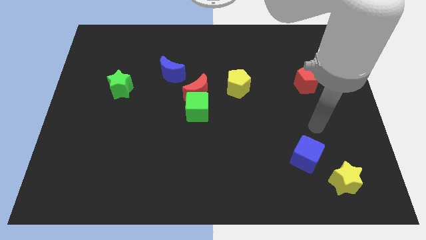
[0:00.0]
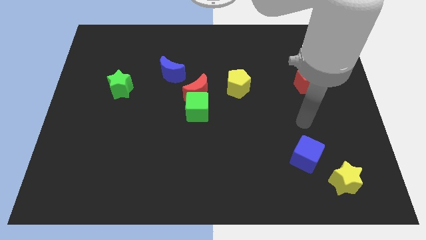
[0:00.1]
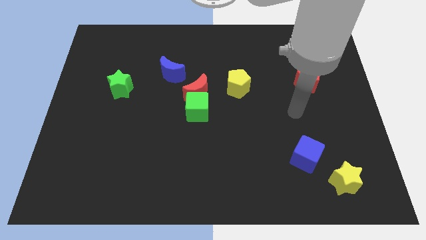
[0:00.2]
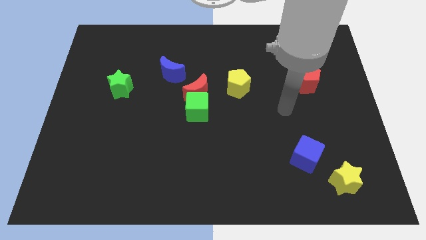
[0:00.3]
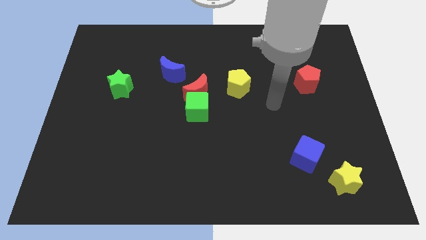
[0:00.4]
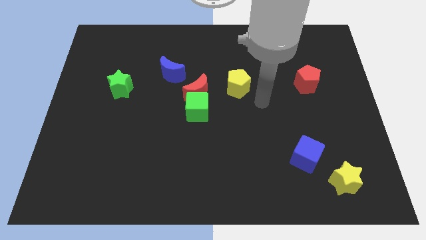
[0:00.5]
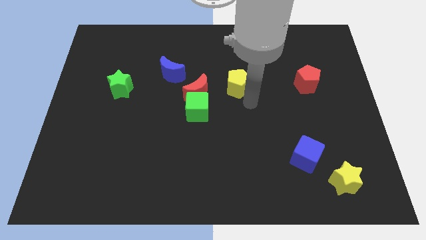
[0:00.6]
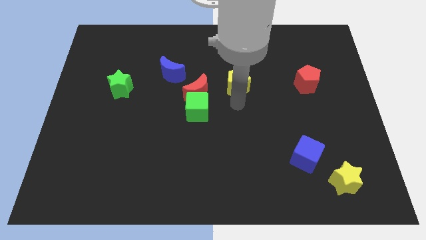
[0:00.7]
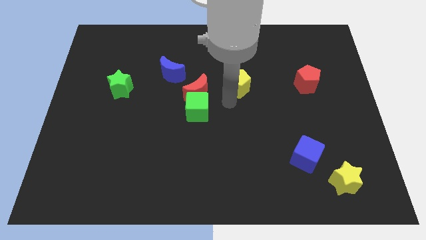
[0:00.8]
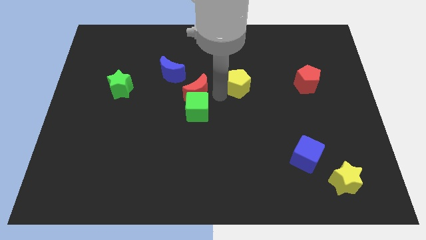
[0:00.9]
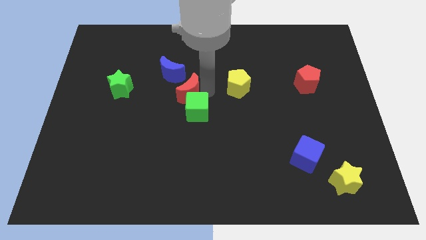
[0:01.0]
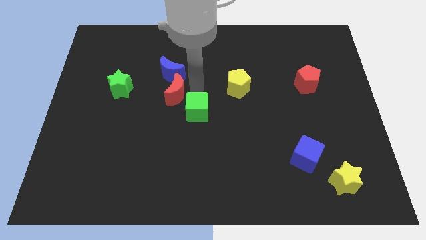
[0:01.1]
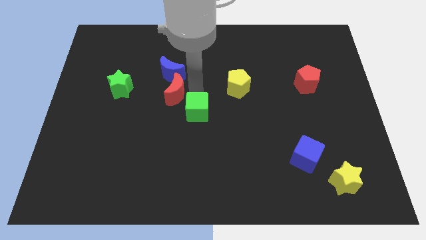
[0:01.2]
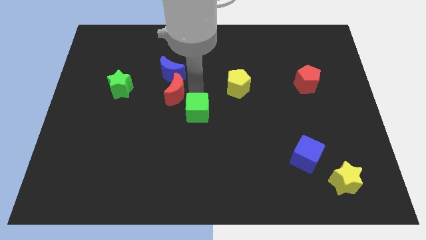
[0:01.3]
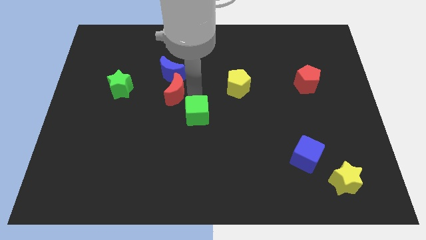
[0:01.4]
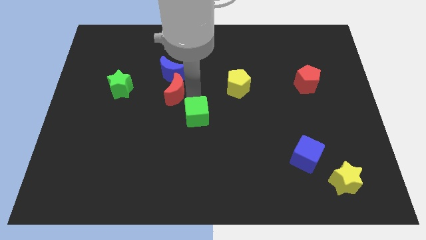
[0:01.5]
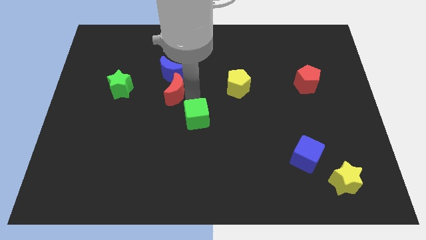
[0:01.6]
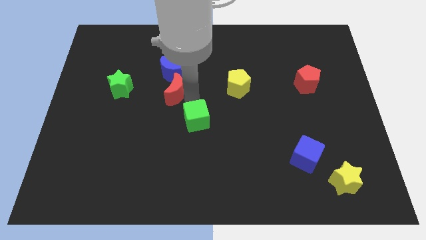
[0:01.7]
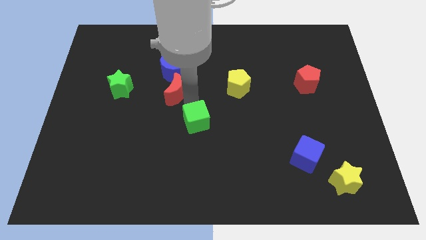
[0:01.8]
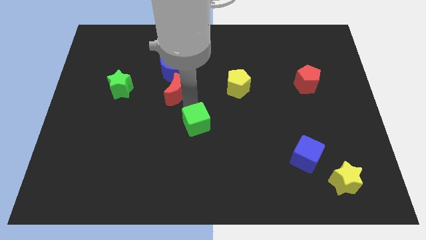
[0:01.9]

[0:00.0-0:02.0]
move the green cube away from the red moon

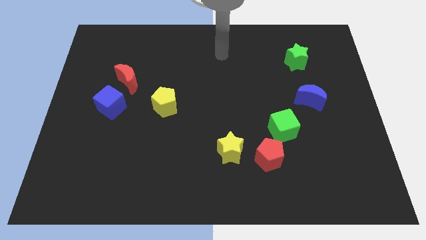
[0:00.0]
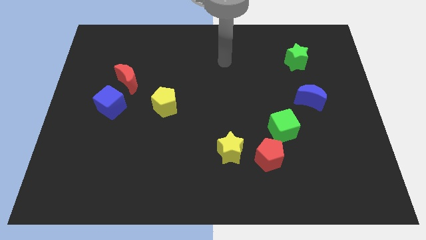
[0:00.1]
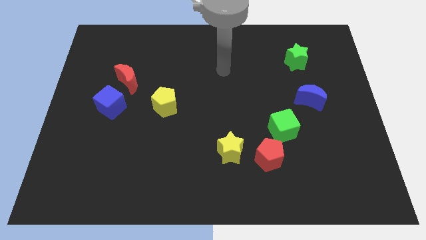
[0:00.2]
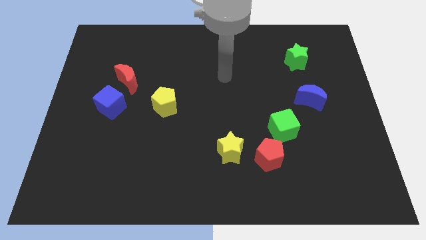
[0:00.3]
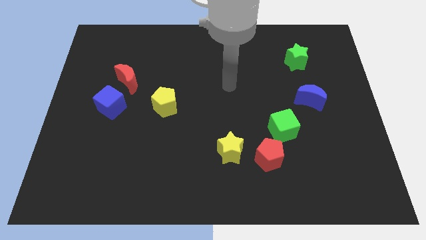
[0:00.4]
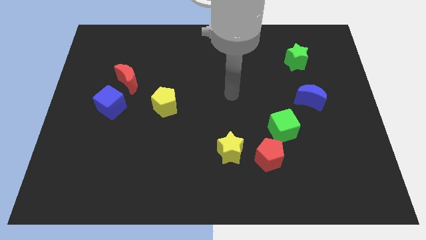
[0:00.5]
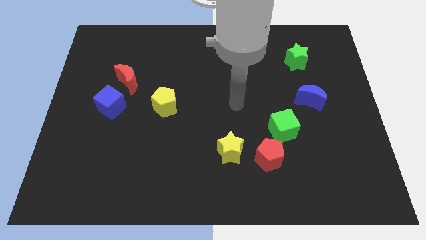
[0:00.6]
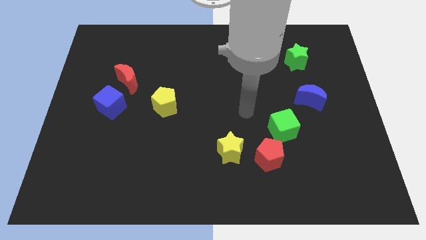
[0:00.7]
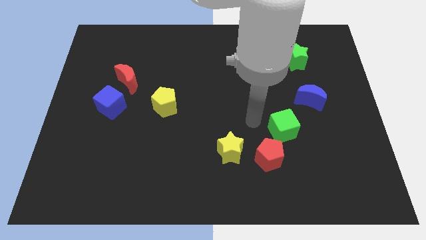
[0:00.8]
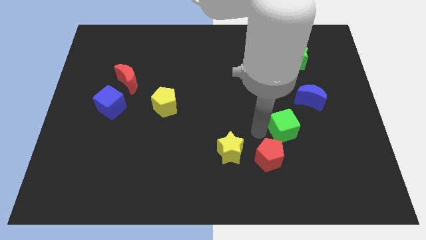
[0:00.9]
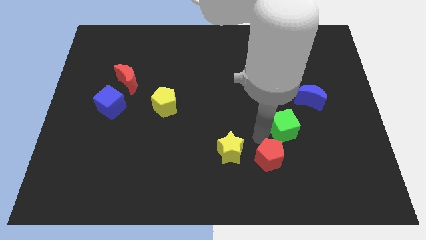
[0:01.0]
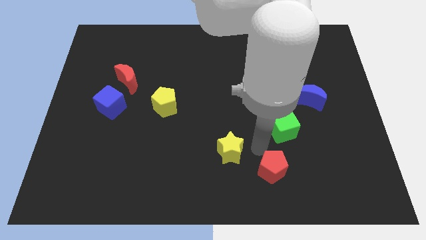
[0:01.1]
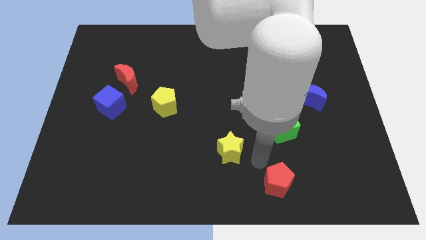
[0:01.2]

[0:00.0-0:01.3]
pull the yellow star apart from the red pentagon

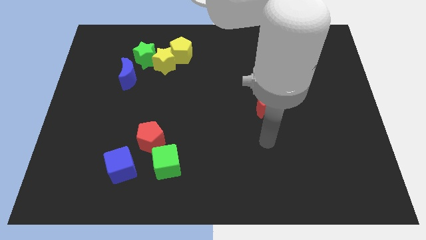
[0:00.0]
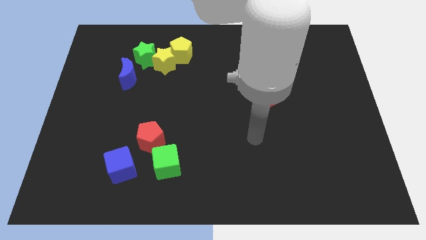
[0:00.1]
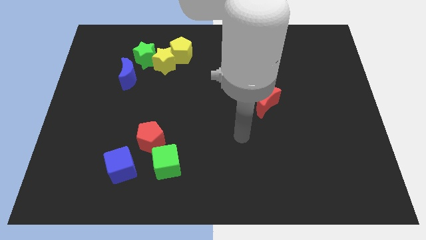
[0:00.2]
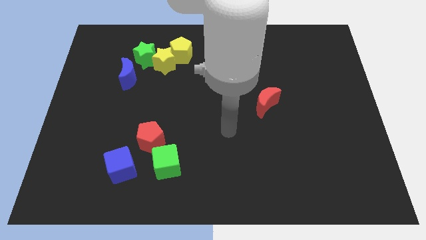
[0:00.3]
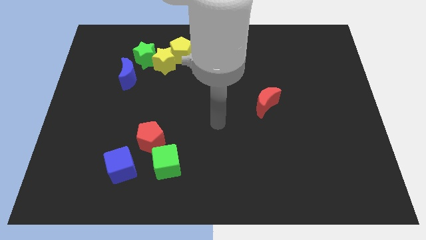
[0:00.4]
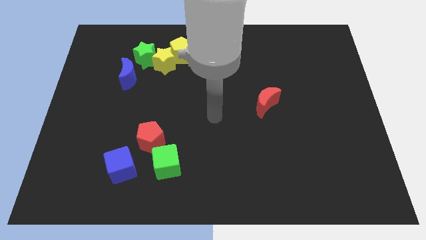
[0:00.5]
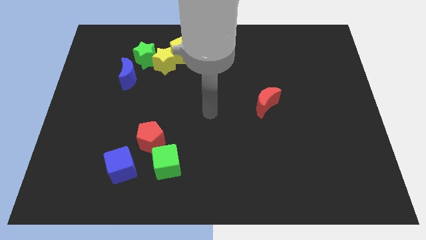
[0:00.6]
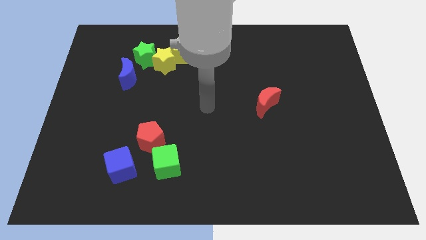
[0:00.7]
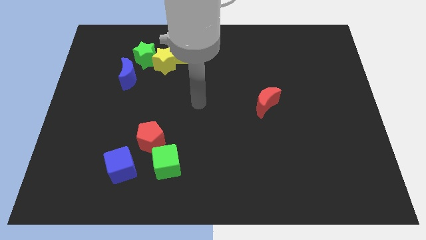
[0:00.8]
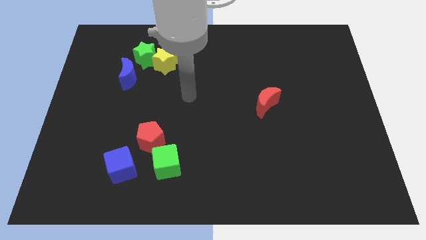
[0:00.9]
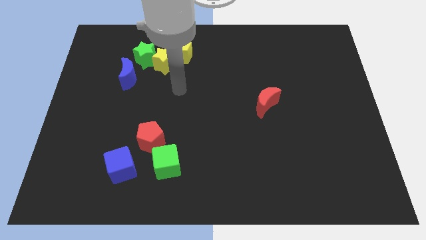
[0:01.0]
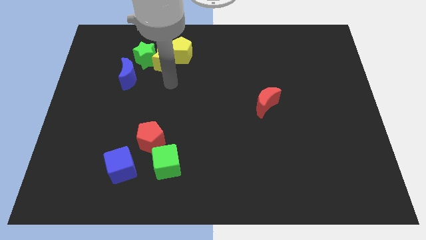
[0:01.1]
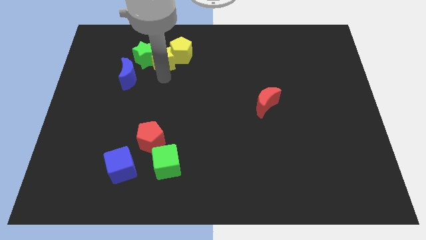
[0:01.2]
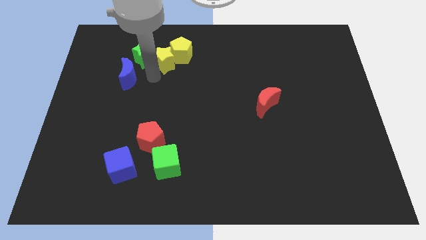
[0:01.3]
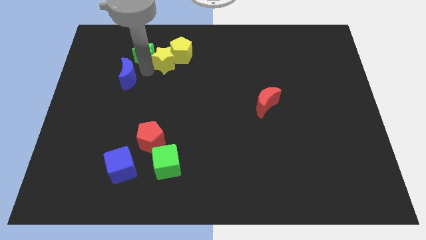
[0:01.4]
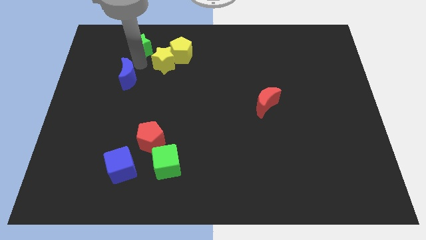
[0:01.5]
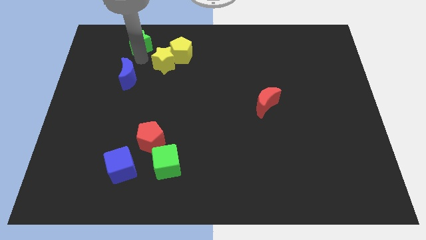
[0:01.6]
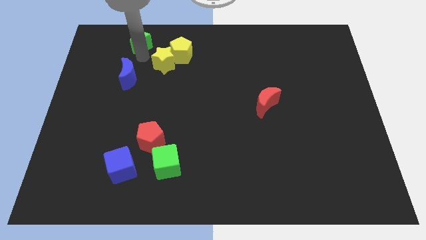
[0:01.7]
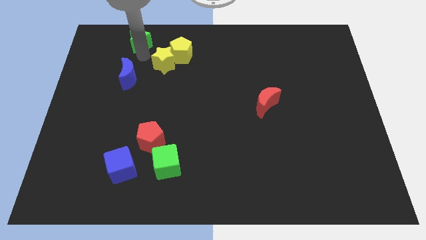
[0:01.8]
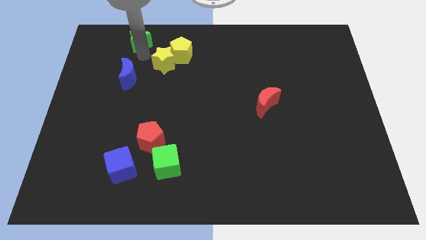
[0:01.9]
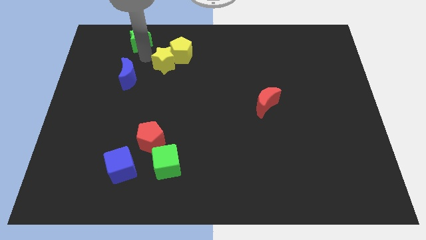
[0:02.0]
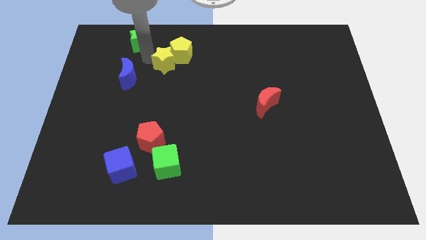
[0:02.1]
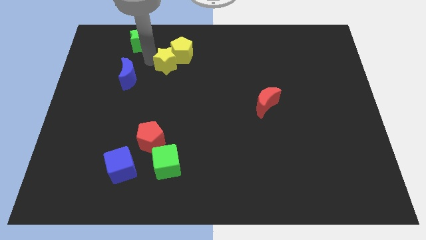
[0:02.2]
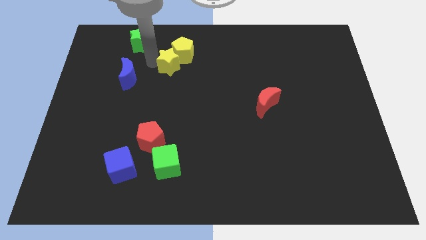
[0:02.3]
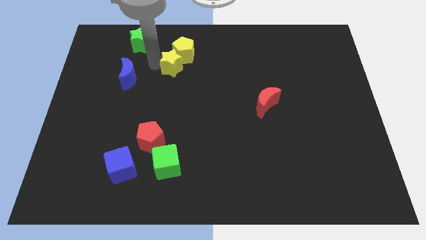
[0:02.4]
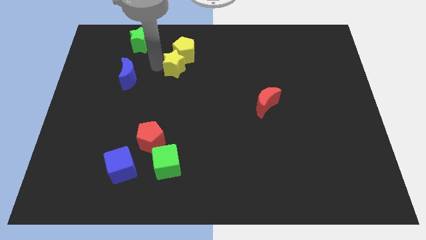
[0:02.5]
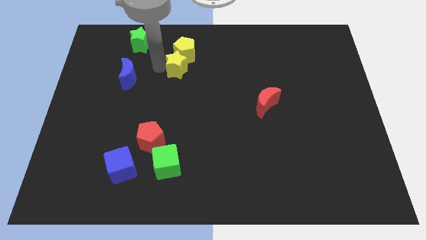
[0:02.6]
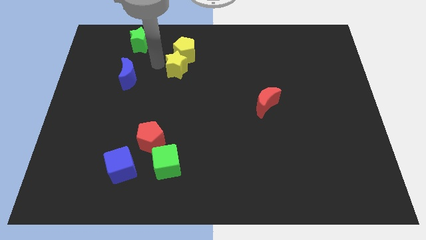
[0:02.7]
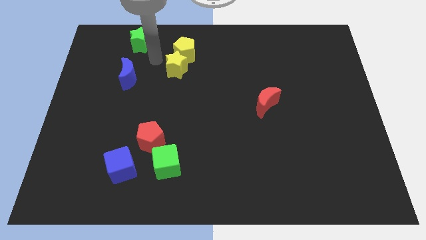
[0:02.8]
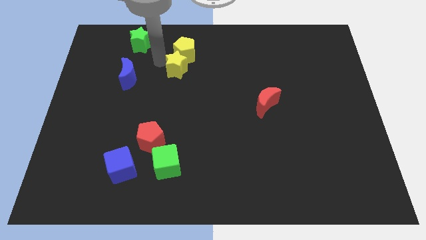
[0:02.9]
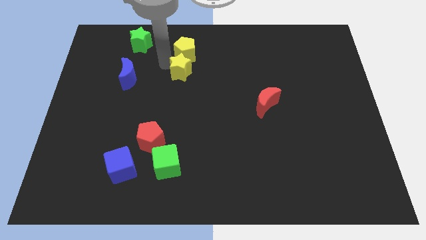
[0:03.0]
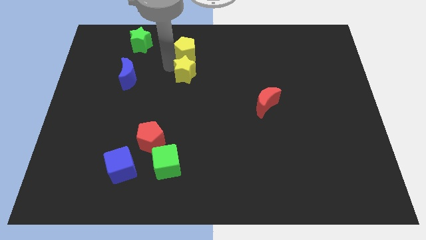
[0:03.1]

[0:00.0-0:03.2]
separate the yellow star from the group

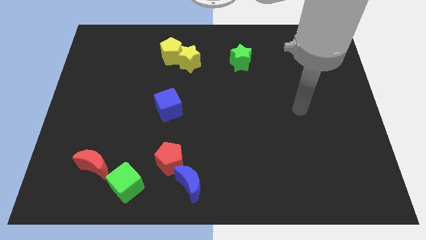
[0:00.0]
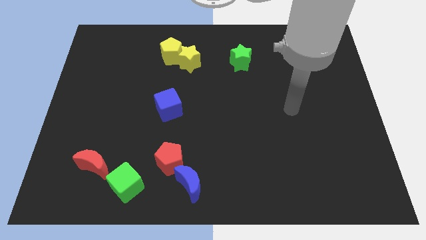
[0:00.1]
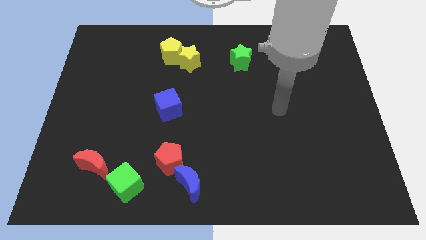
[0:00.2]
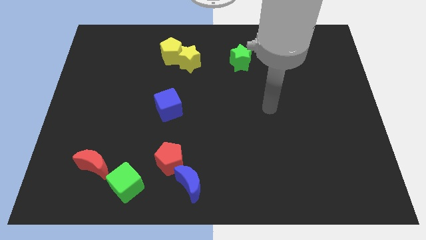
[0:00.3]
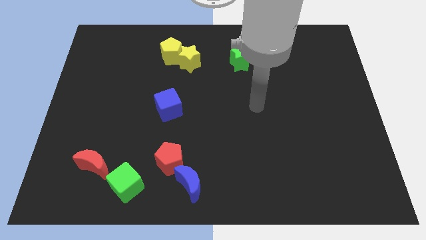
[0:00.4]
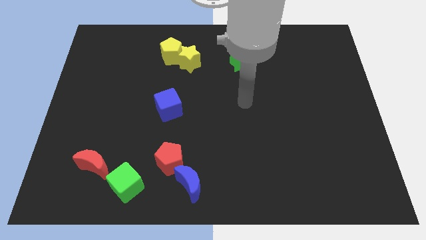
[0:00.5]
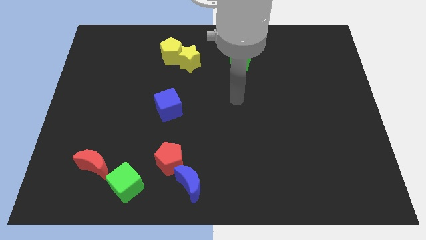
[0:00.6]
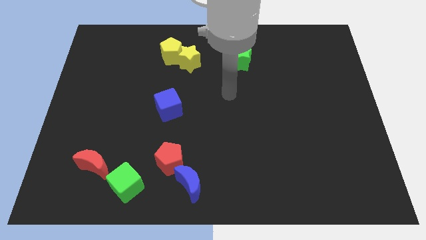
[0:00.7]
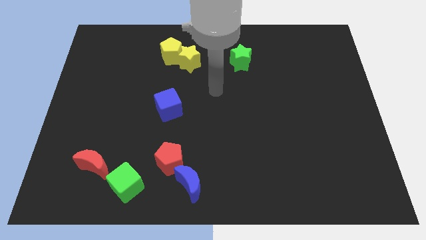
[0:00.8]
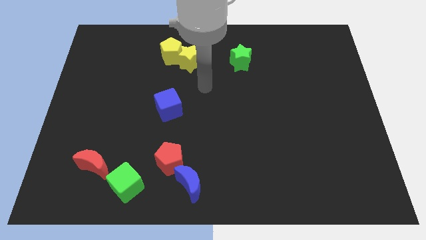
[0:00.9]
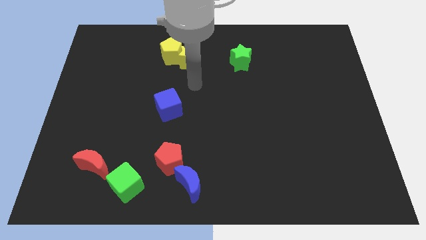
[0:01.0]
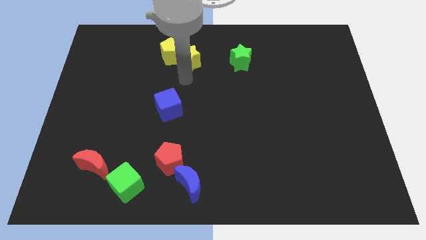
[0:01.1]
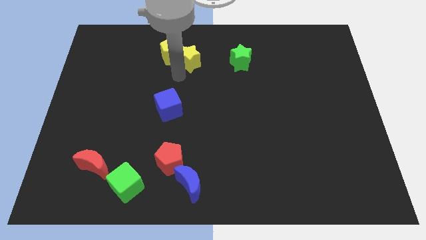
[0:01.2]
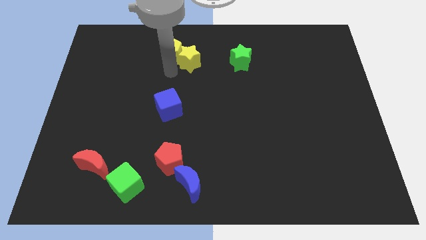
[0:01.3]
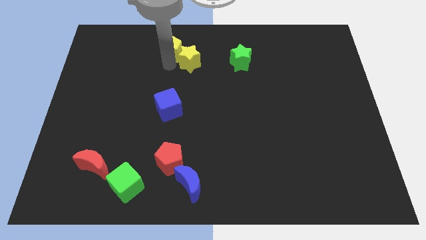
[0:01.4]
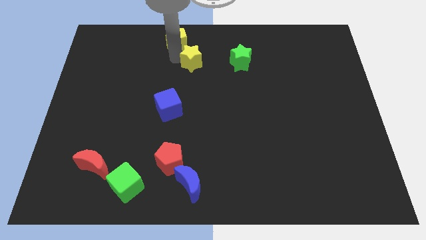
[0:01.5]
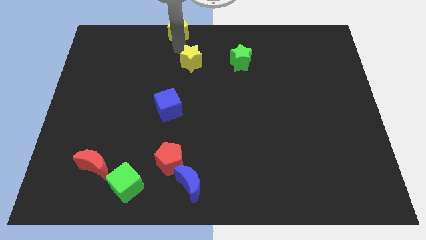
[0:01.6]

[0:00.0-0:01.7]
pull the yellow star apart from the yellow pentagon

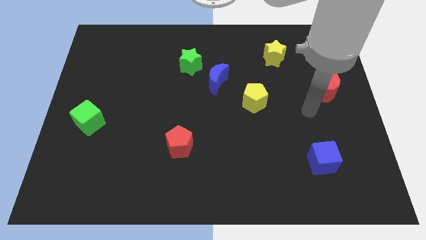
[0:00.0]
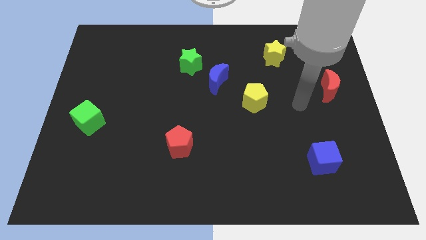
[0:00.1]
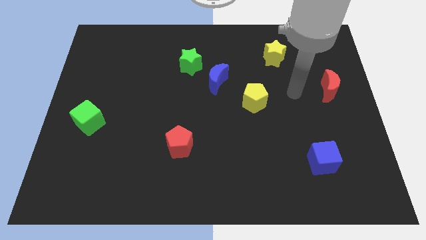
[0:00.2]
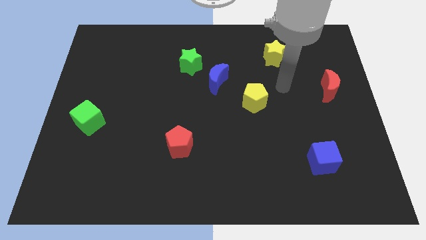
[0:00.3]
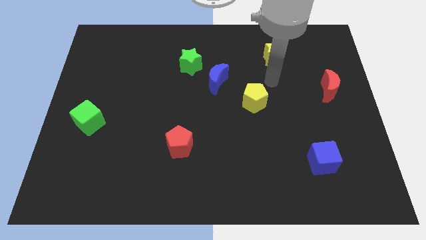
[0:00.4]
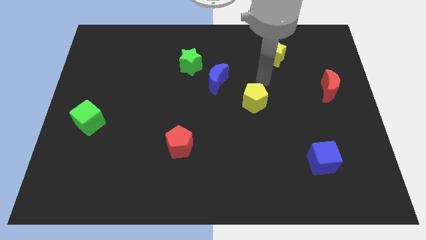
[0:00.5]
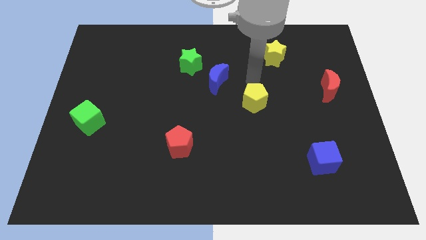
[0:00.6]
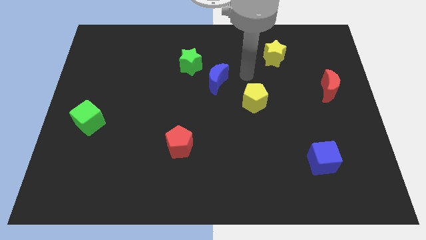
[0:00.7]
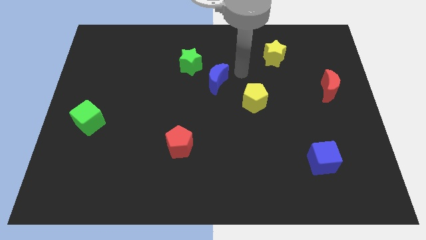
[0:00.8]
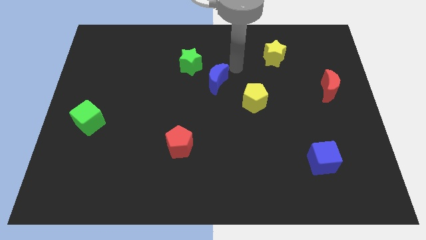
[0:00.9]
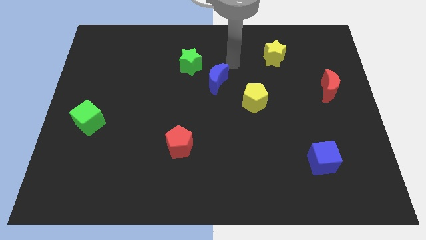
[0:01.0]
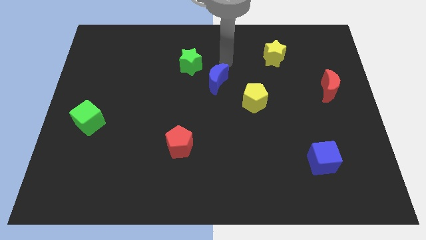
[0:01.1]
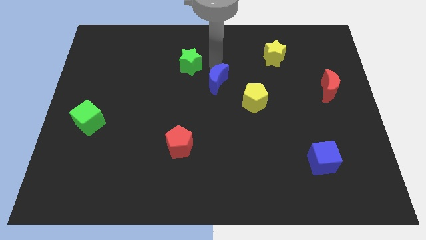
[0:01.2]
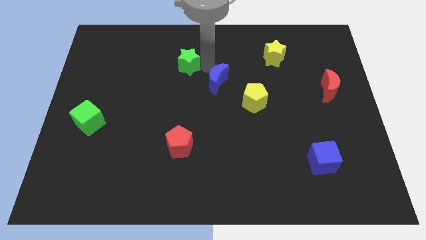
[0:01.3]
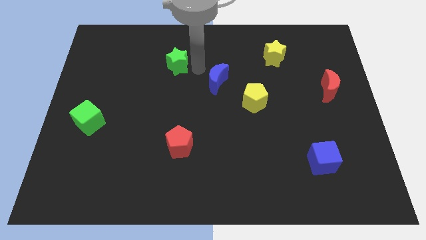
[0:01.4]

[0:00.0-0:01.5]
move the blue moon away from the green star
